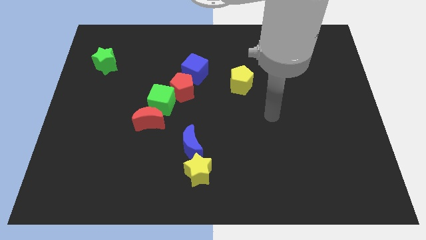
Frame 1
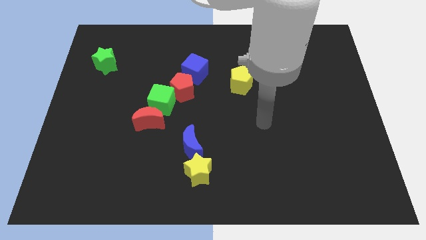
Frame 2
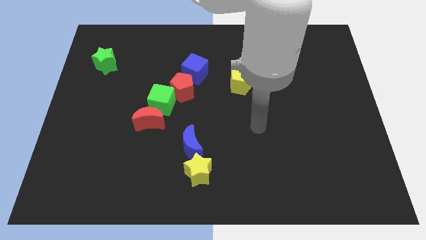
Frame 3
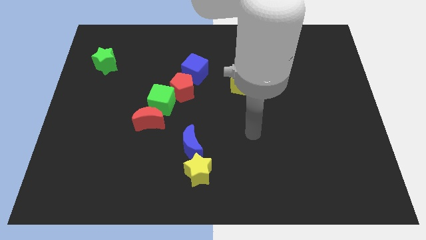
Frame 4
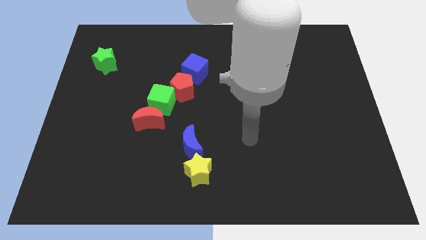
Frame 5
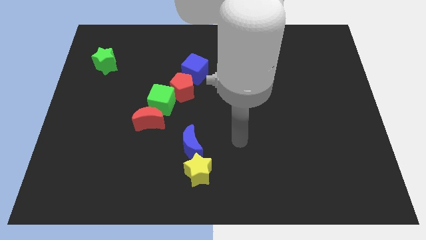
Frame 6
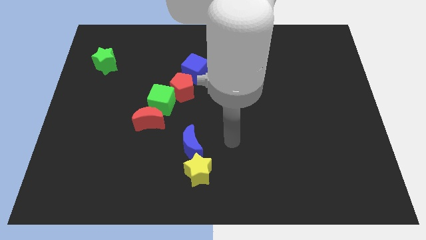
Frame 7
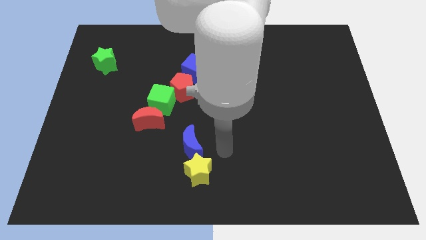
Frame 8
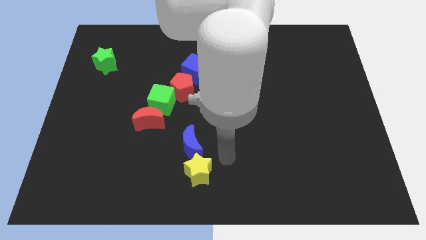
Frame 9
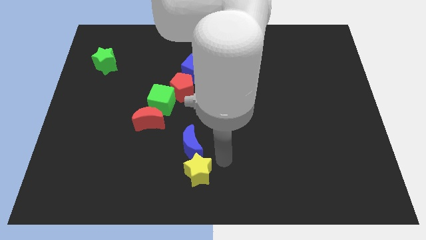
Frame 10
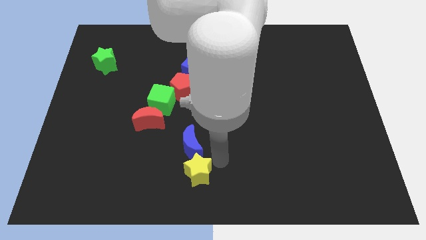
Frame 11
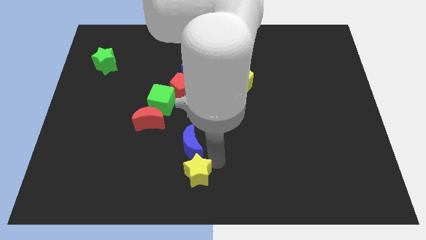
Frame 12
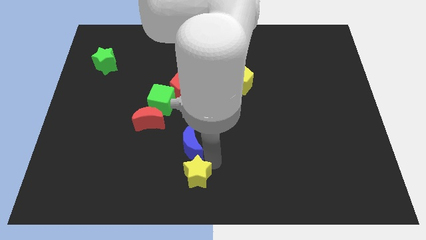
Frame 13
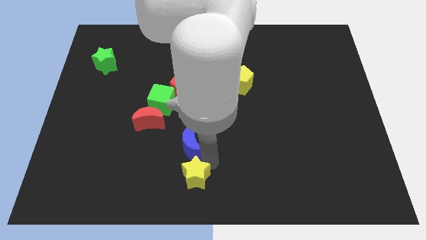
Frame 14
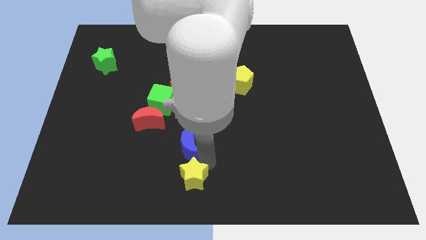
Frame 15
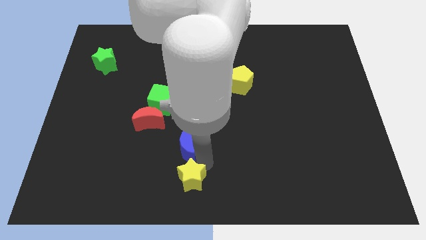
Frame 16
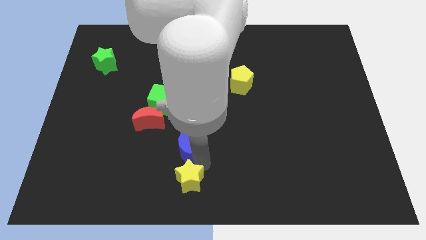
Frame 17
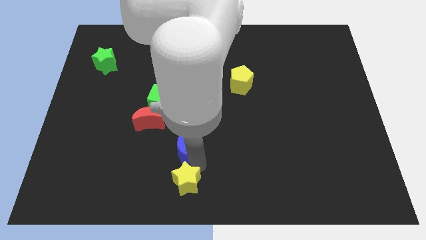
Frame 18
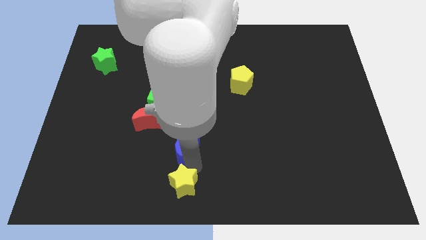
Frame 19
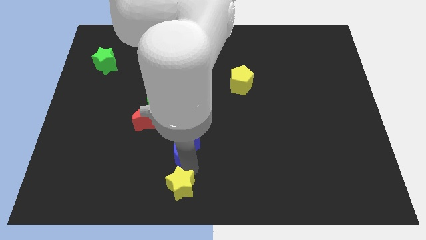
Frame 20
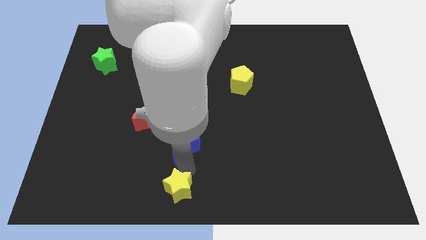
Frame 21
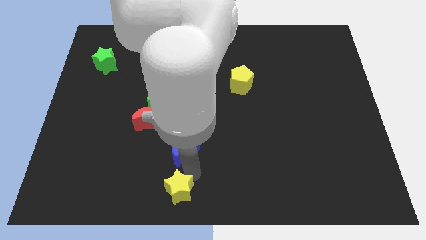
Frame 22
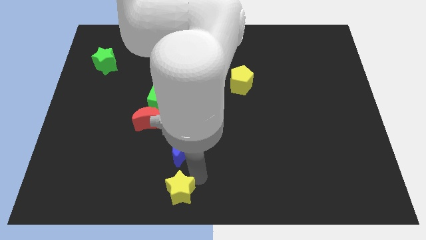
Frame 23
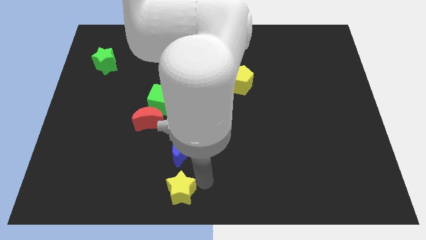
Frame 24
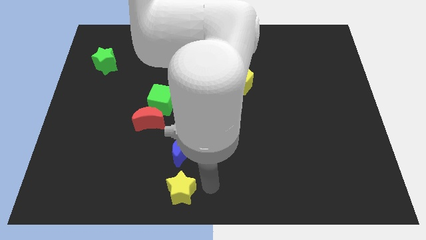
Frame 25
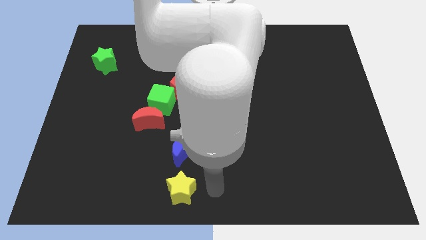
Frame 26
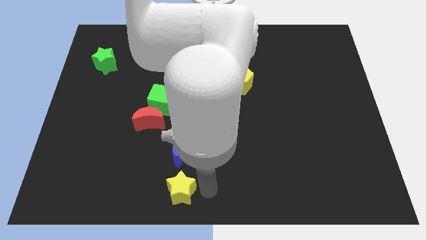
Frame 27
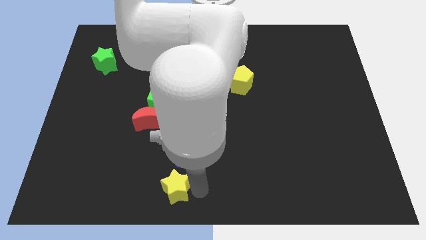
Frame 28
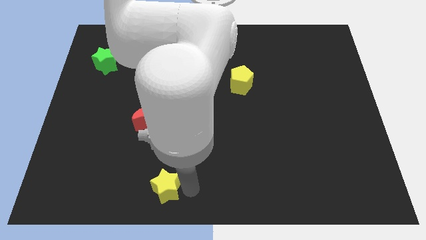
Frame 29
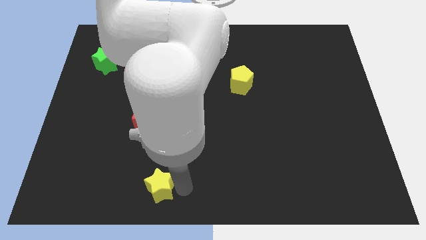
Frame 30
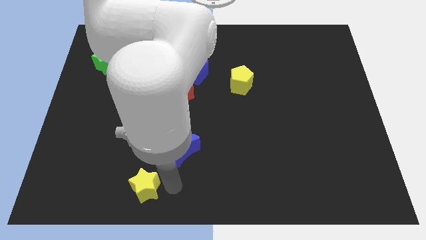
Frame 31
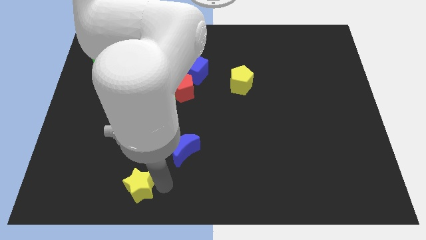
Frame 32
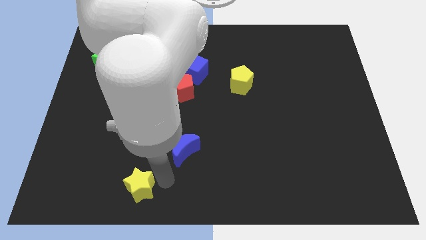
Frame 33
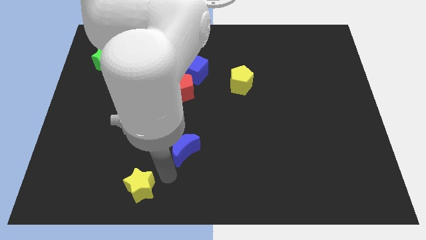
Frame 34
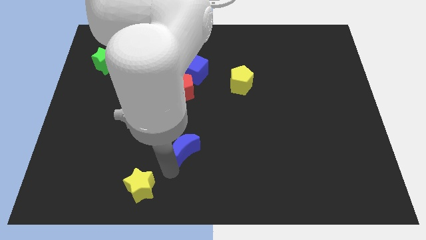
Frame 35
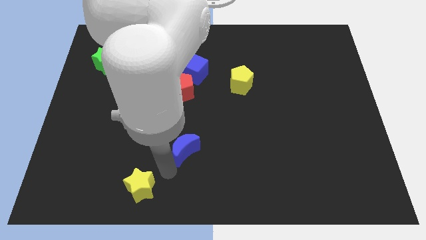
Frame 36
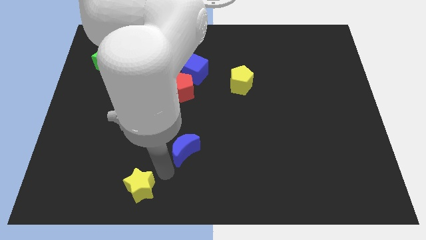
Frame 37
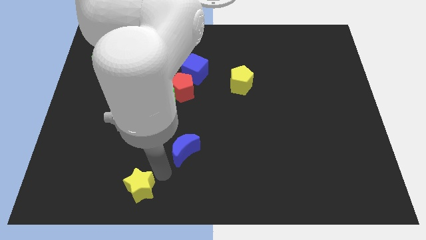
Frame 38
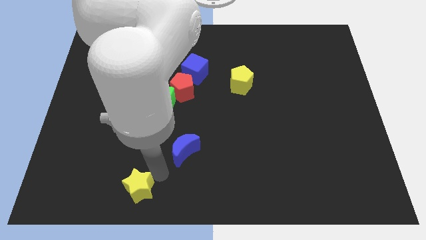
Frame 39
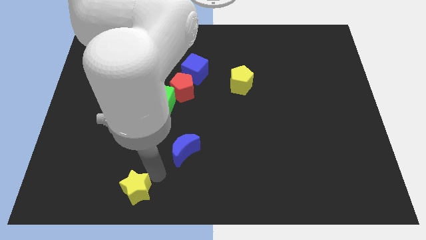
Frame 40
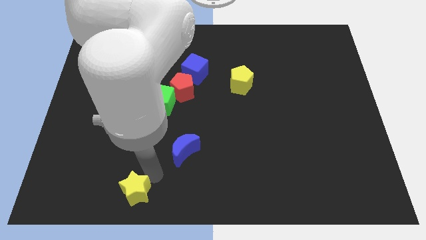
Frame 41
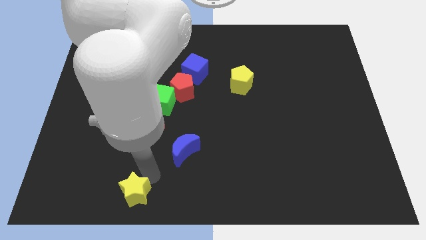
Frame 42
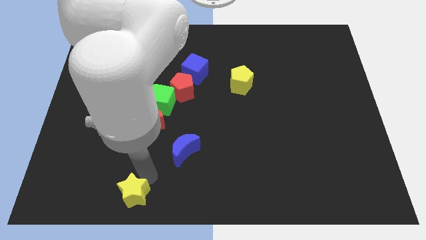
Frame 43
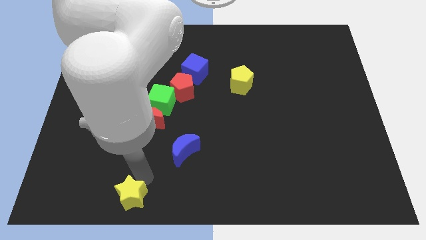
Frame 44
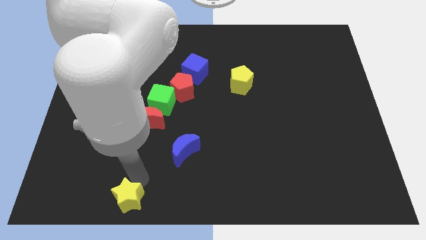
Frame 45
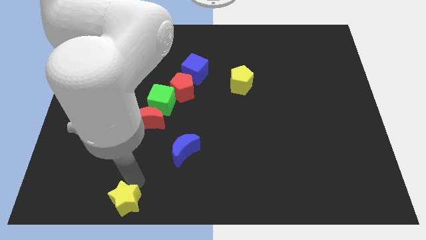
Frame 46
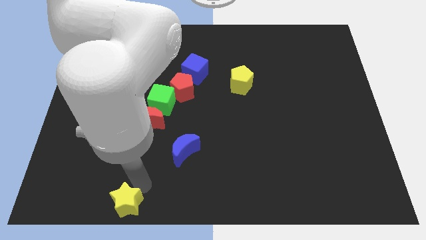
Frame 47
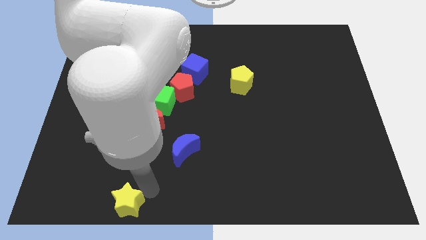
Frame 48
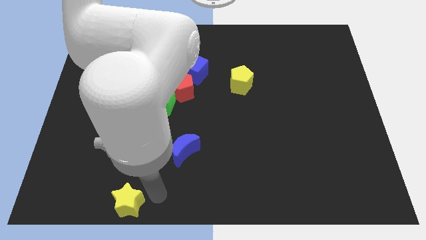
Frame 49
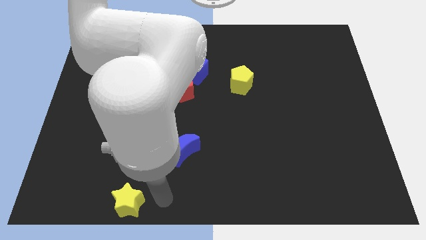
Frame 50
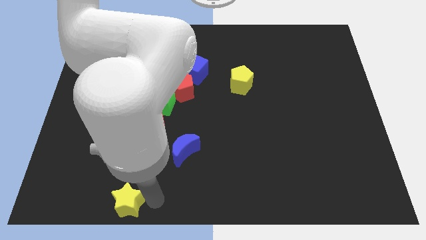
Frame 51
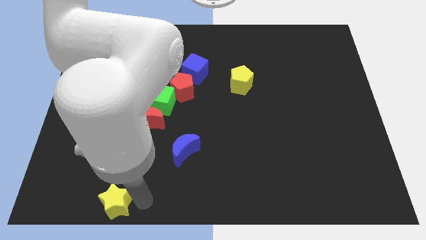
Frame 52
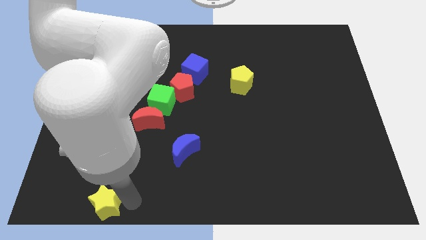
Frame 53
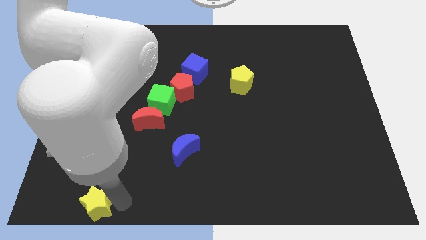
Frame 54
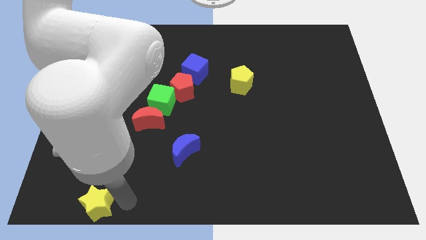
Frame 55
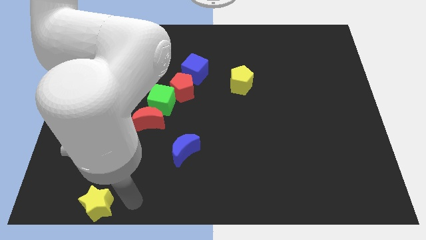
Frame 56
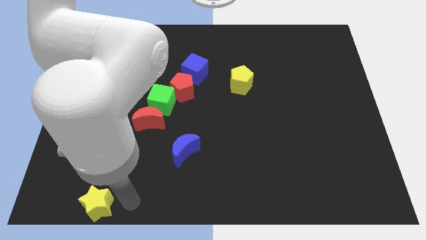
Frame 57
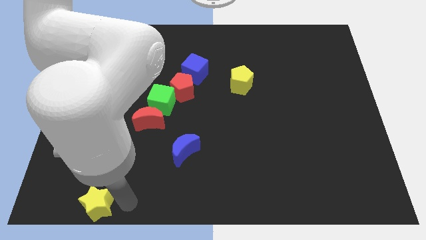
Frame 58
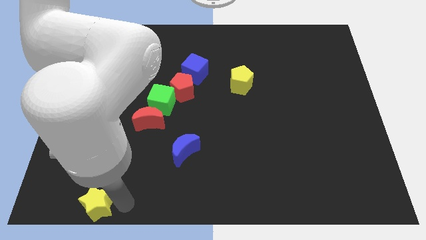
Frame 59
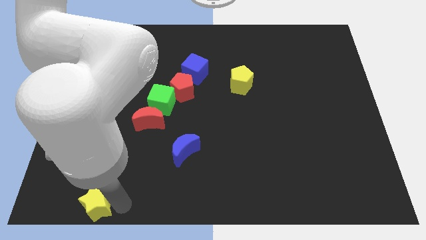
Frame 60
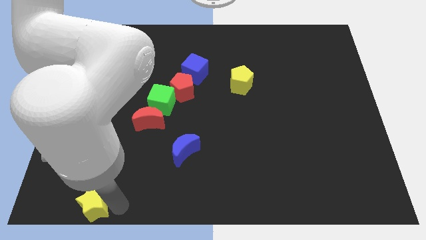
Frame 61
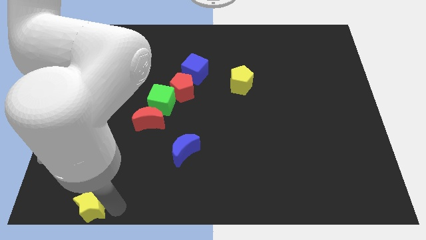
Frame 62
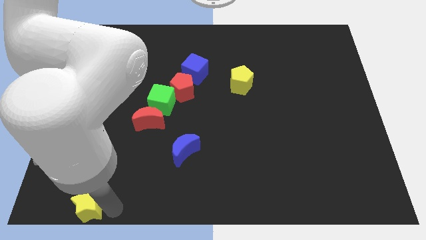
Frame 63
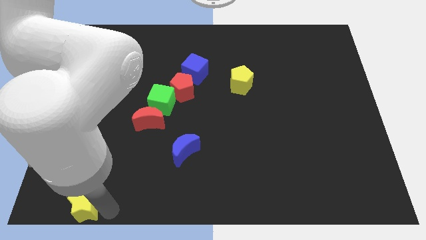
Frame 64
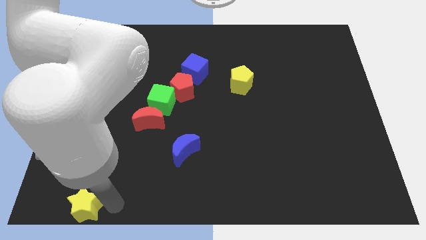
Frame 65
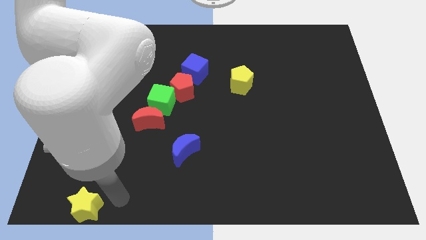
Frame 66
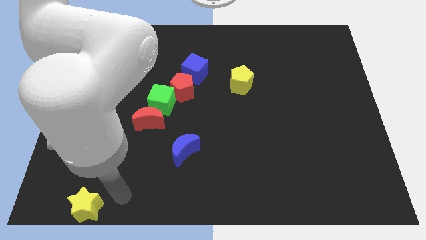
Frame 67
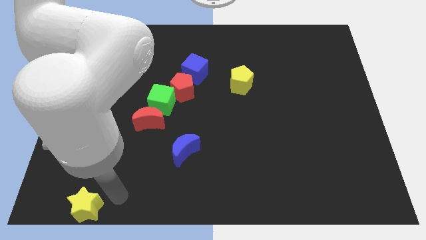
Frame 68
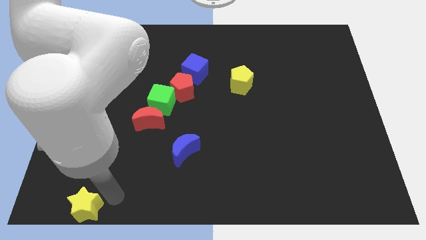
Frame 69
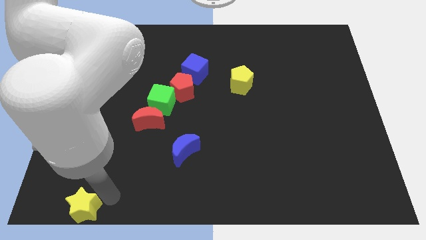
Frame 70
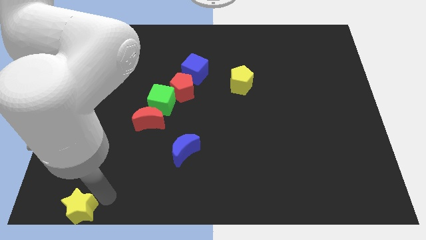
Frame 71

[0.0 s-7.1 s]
slide the yellow star to the bottom left of the board

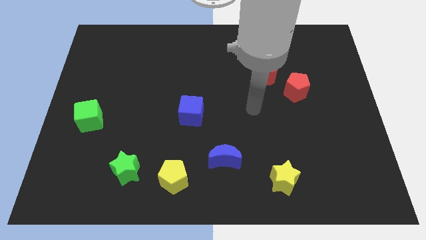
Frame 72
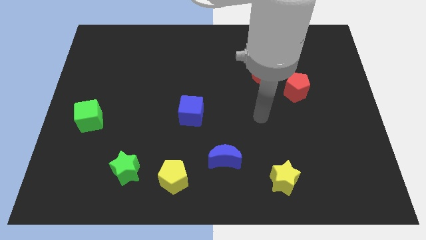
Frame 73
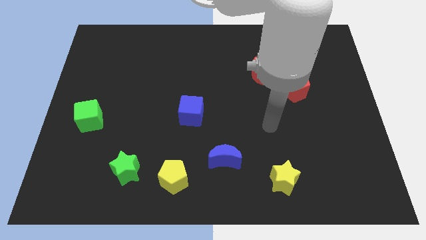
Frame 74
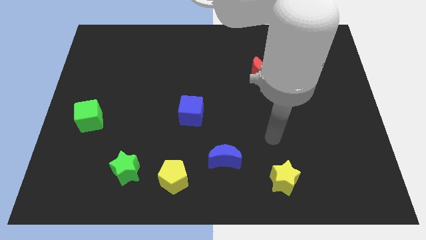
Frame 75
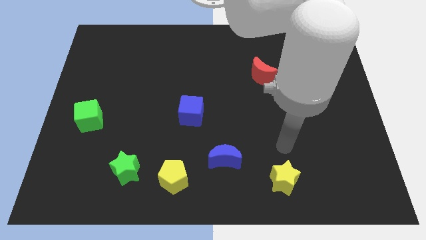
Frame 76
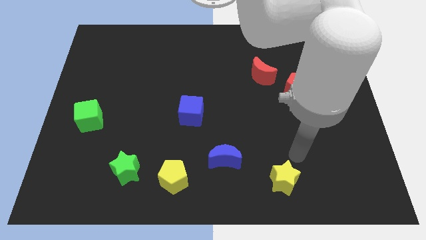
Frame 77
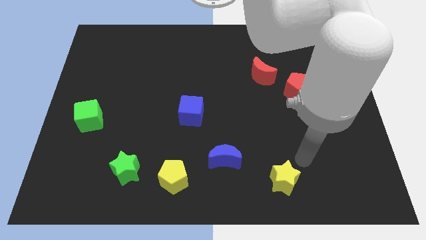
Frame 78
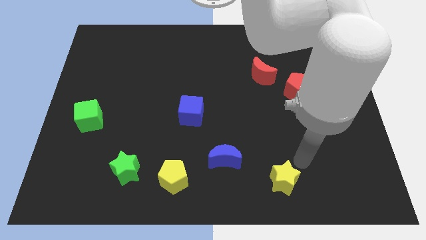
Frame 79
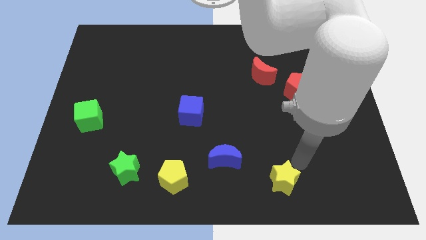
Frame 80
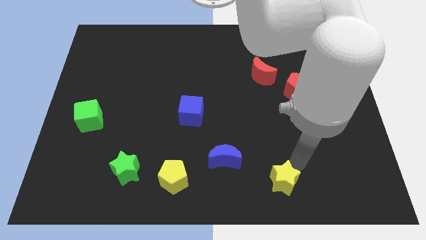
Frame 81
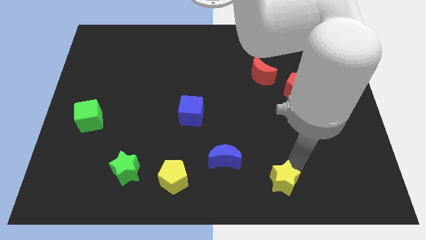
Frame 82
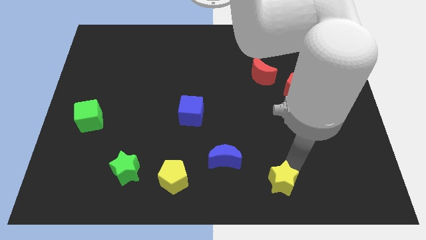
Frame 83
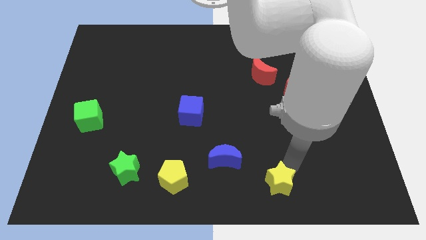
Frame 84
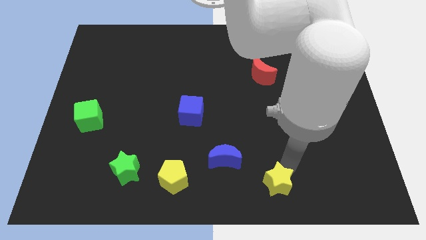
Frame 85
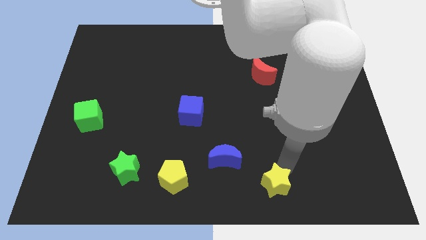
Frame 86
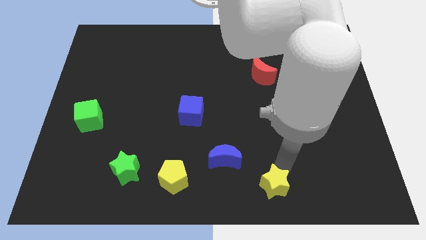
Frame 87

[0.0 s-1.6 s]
slide the yellow star to the bottom
